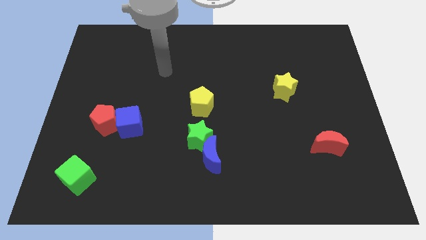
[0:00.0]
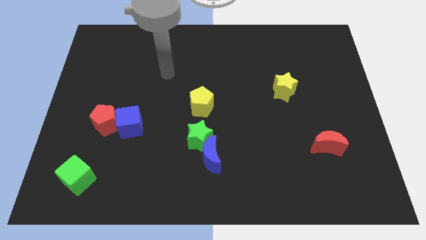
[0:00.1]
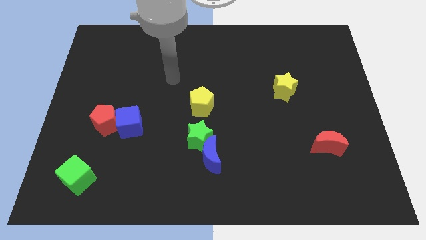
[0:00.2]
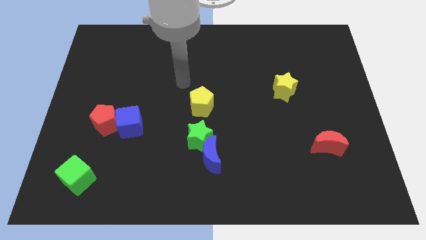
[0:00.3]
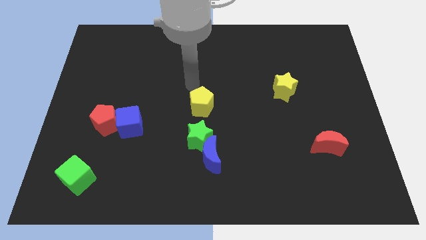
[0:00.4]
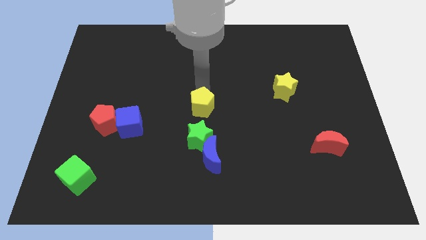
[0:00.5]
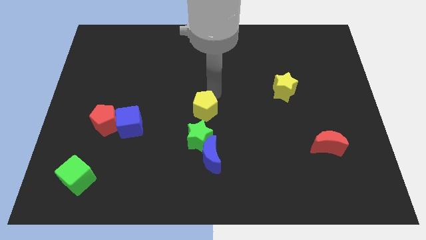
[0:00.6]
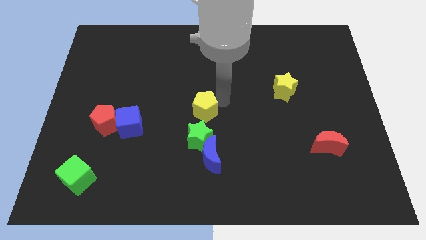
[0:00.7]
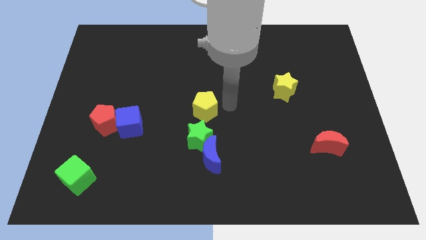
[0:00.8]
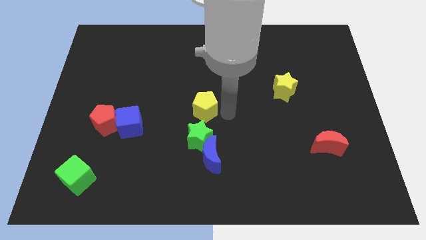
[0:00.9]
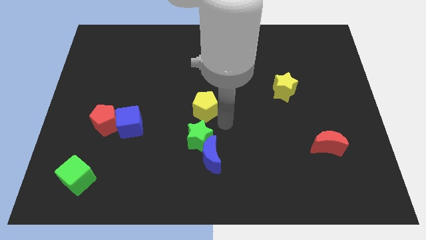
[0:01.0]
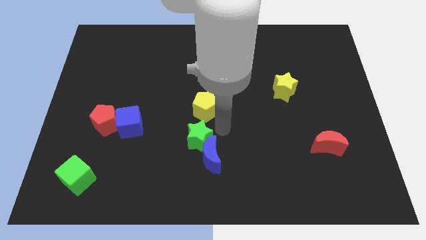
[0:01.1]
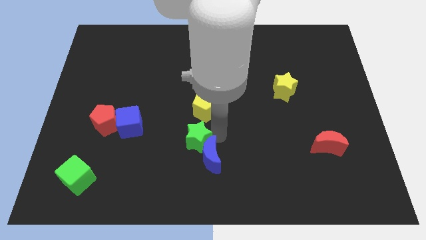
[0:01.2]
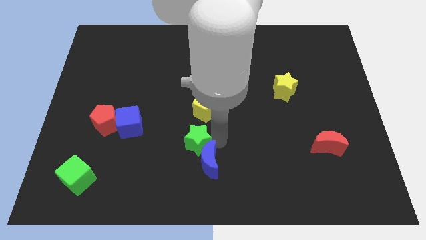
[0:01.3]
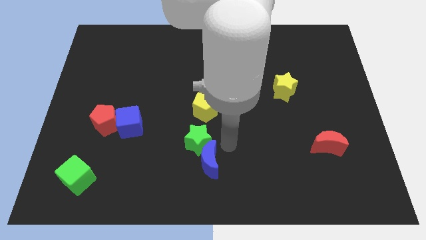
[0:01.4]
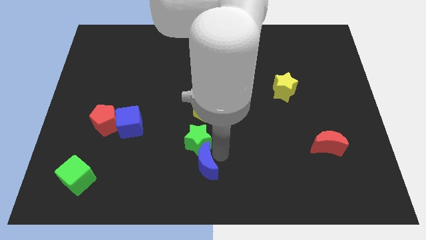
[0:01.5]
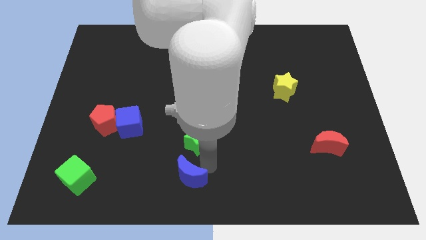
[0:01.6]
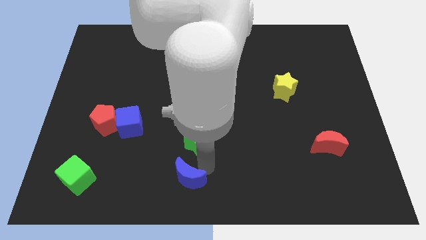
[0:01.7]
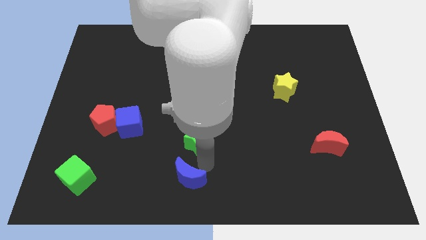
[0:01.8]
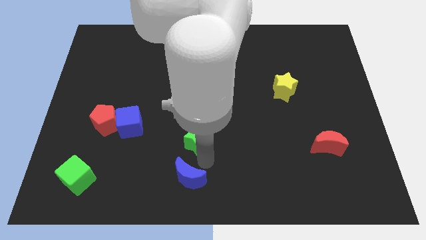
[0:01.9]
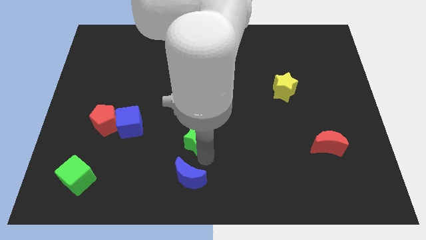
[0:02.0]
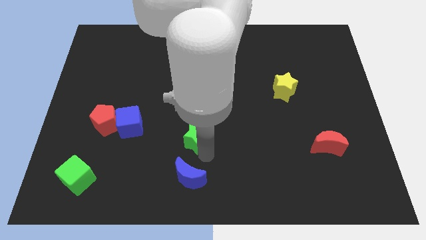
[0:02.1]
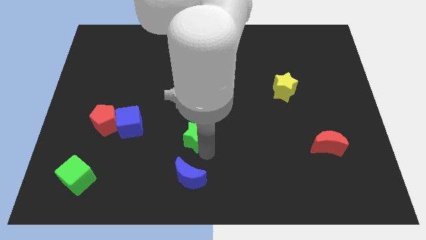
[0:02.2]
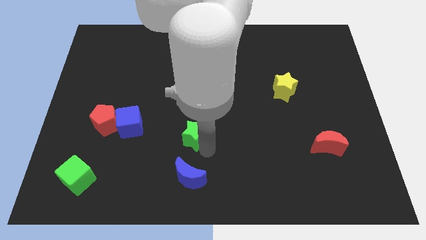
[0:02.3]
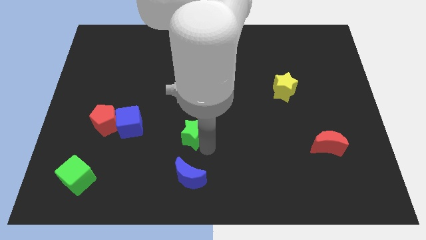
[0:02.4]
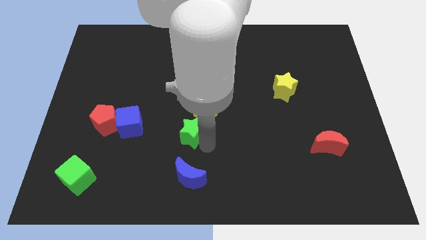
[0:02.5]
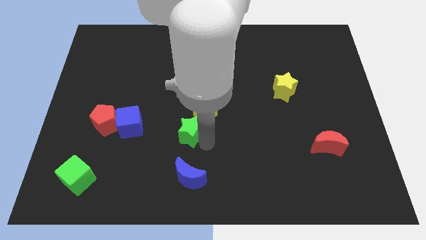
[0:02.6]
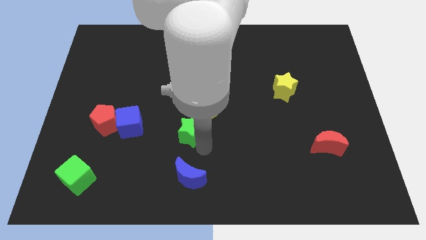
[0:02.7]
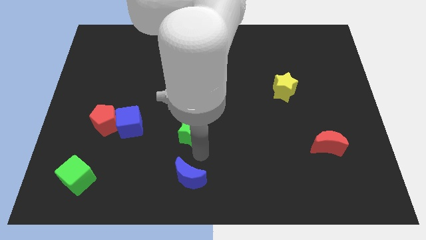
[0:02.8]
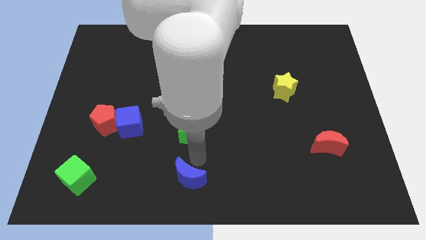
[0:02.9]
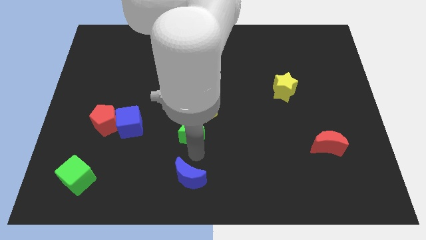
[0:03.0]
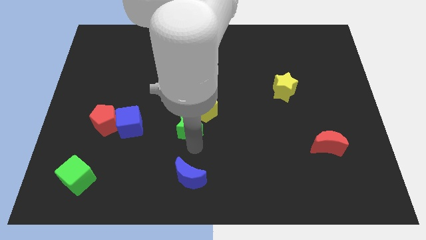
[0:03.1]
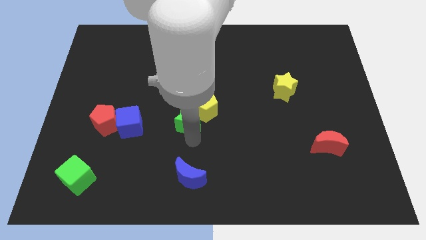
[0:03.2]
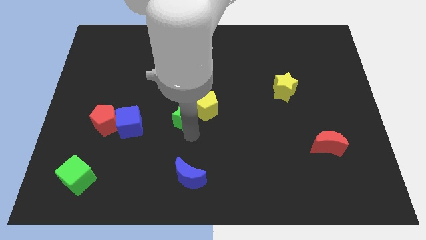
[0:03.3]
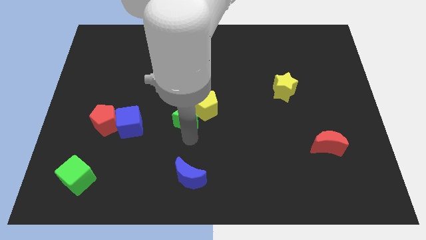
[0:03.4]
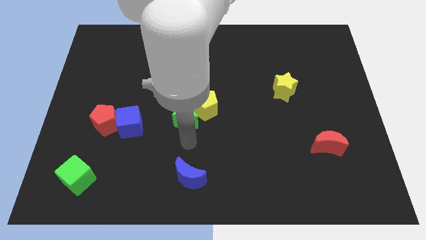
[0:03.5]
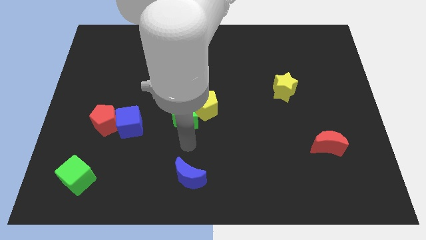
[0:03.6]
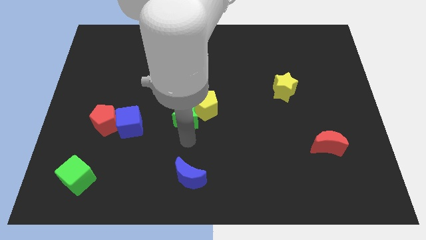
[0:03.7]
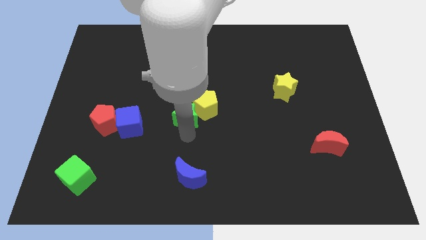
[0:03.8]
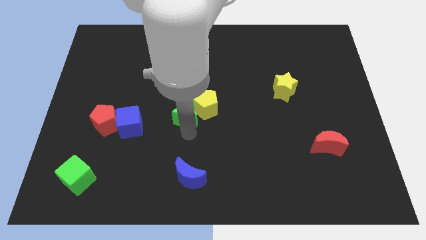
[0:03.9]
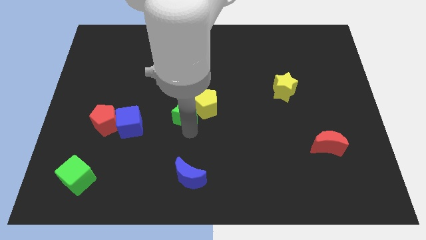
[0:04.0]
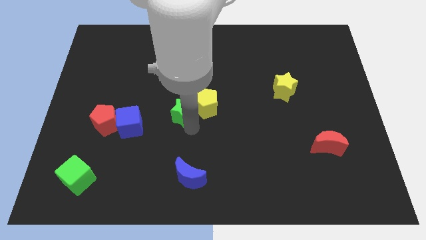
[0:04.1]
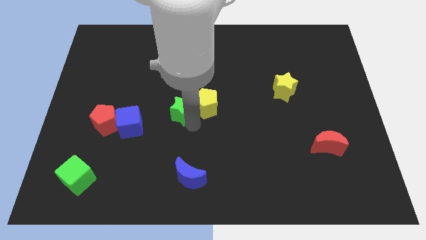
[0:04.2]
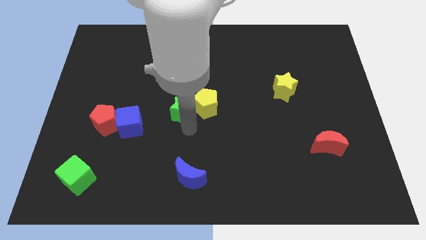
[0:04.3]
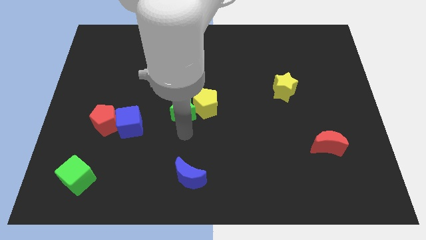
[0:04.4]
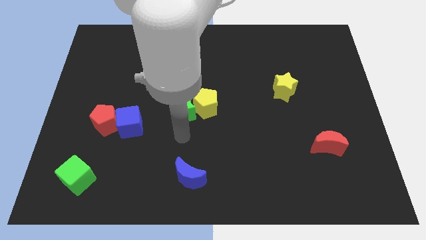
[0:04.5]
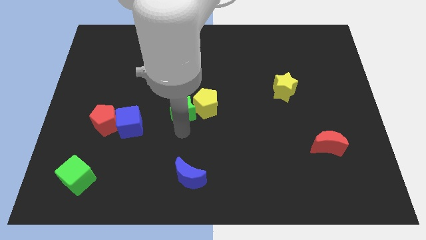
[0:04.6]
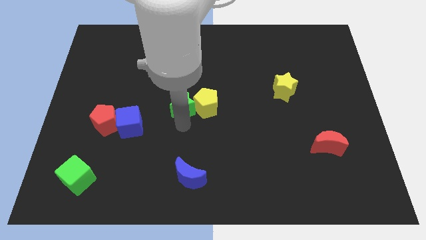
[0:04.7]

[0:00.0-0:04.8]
slide the green star to the top left of the yellow pentagon

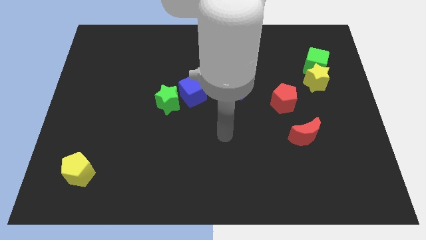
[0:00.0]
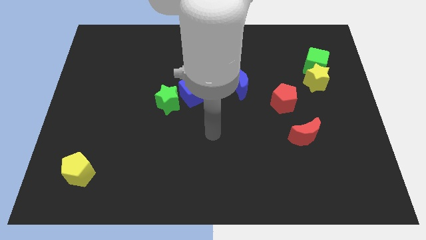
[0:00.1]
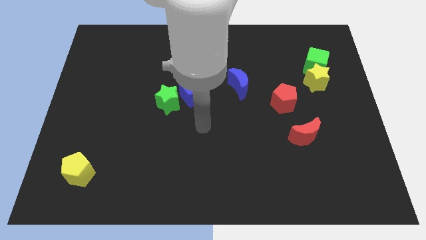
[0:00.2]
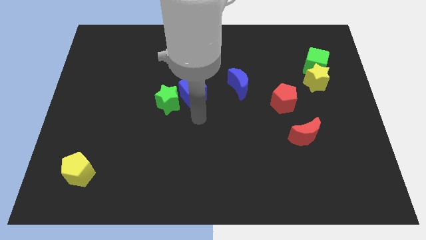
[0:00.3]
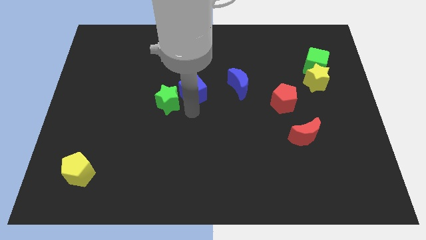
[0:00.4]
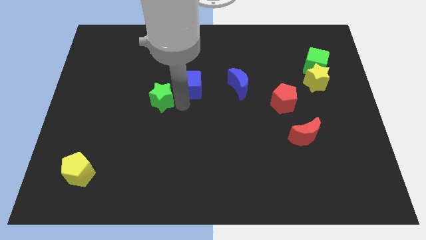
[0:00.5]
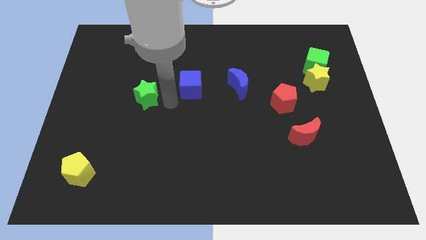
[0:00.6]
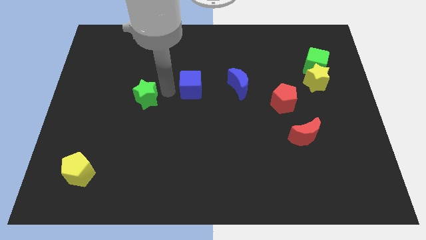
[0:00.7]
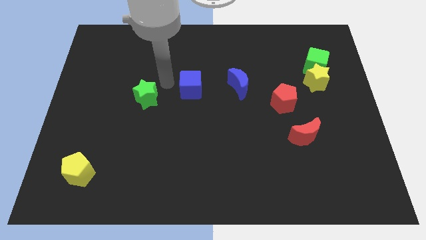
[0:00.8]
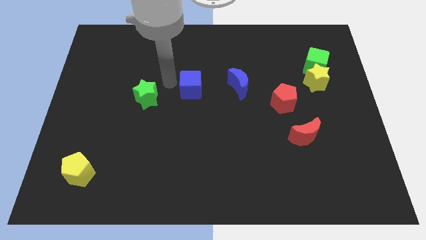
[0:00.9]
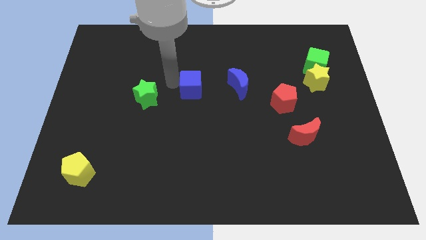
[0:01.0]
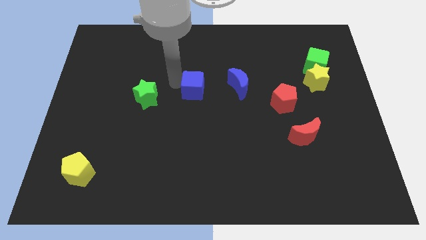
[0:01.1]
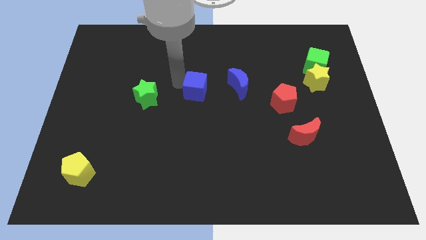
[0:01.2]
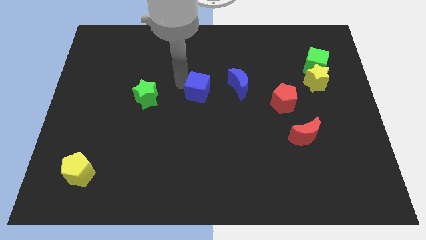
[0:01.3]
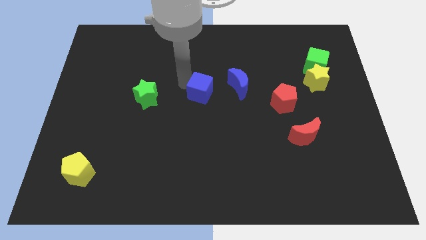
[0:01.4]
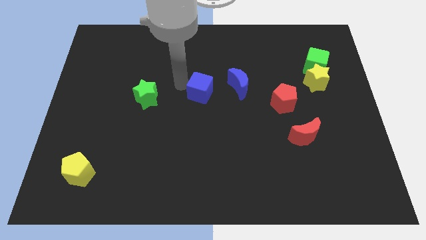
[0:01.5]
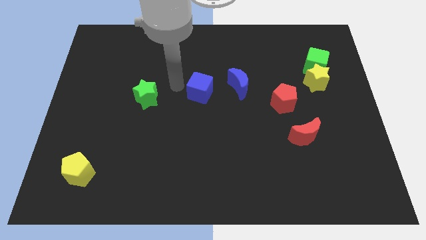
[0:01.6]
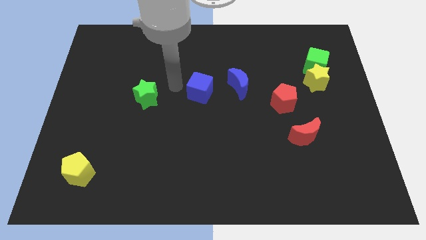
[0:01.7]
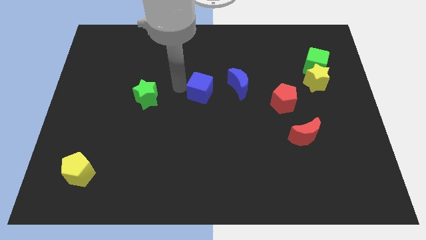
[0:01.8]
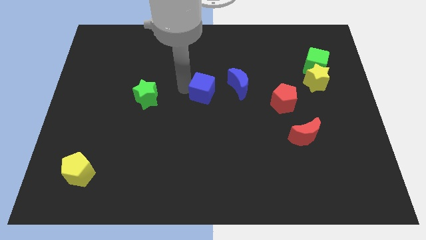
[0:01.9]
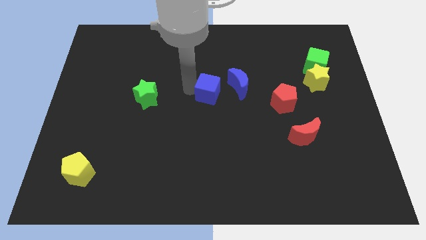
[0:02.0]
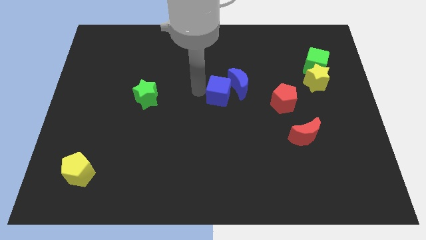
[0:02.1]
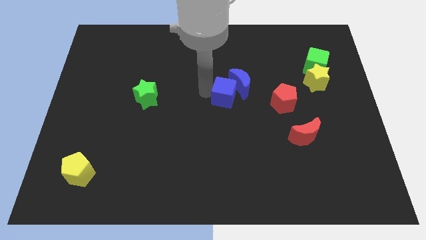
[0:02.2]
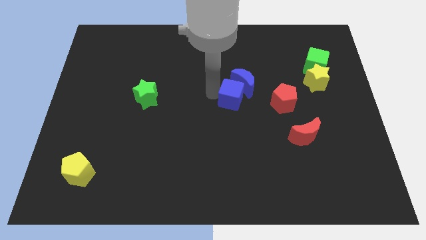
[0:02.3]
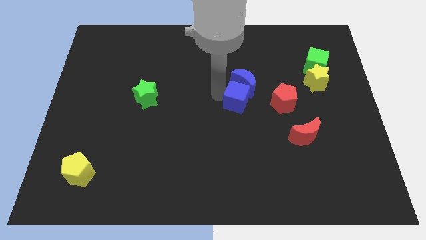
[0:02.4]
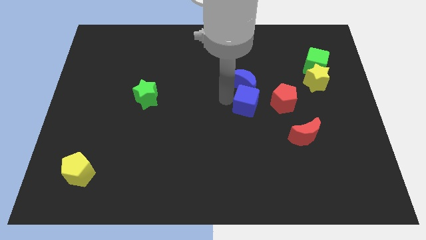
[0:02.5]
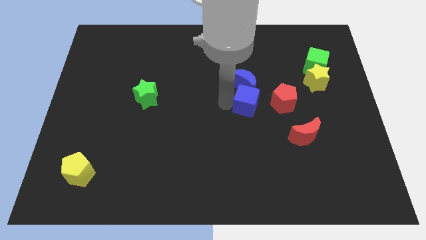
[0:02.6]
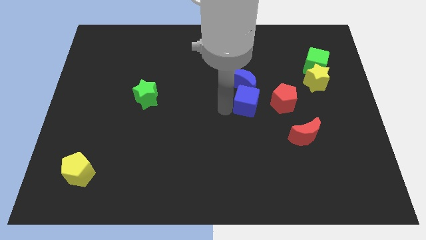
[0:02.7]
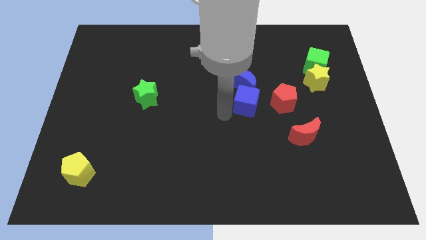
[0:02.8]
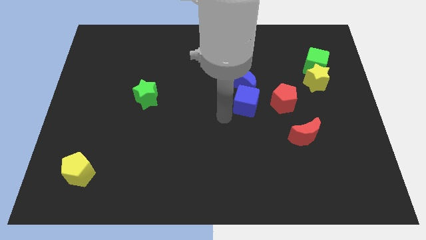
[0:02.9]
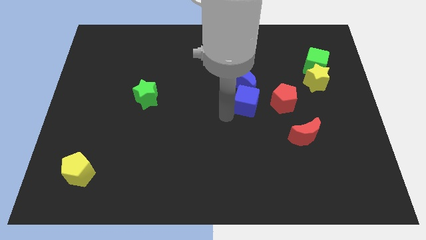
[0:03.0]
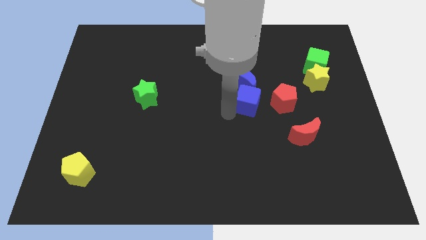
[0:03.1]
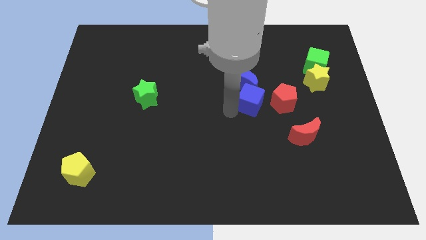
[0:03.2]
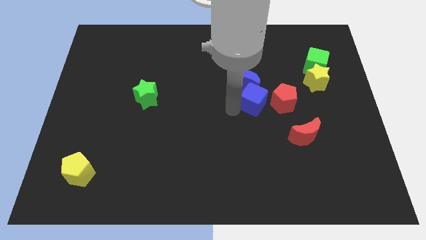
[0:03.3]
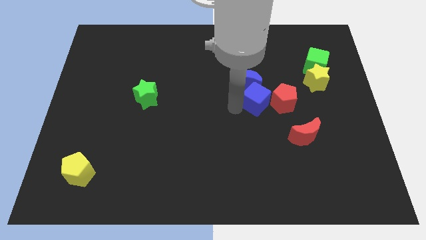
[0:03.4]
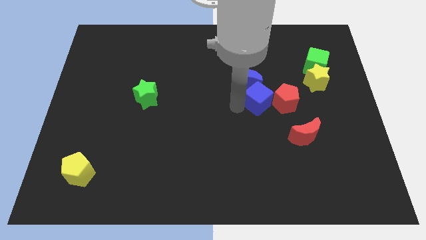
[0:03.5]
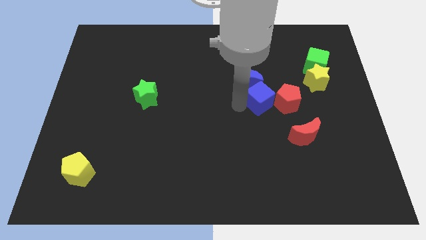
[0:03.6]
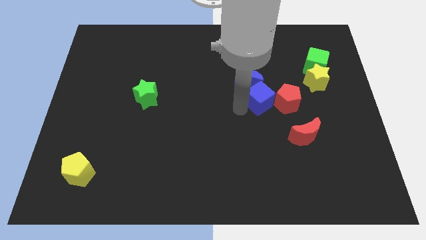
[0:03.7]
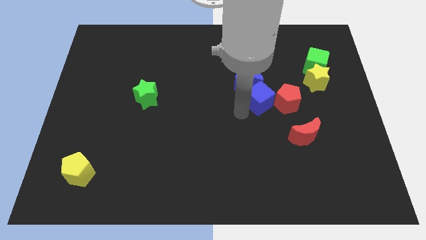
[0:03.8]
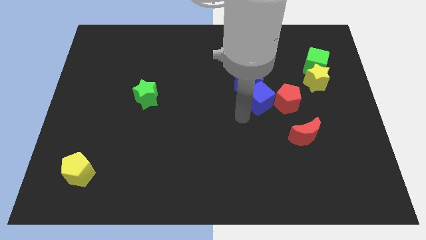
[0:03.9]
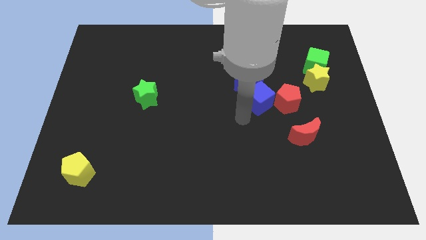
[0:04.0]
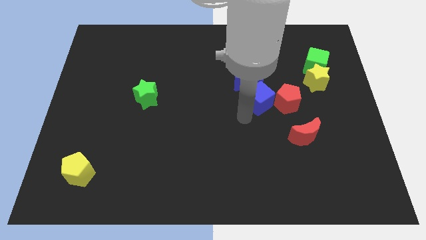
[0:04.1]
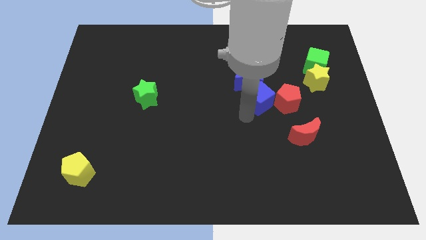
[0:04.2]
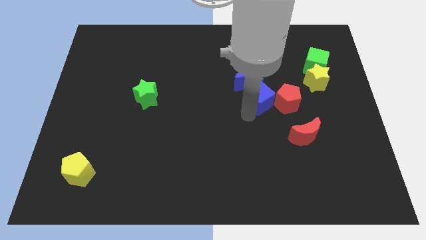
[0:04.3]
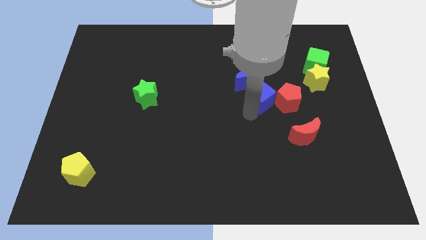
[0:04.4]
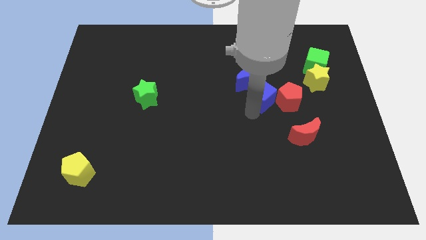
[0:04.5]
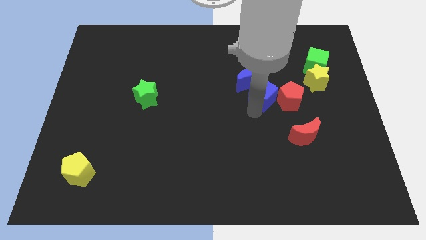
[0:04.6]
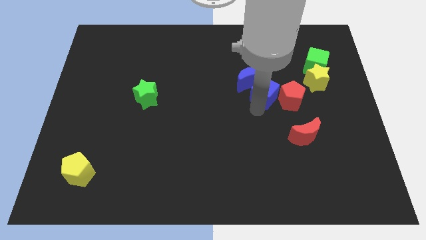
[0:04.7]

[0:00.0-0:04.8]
push the blue cube to the right of the blue moon
